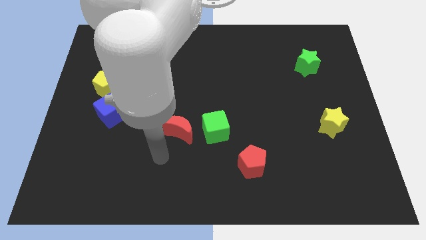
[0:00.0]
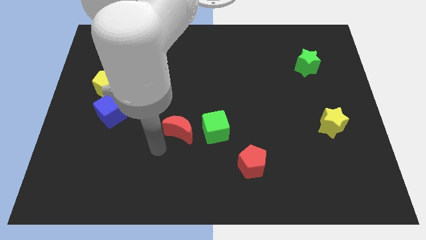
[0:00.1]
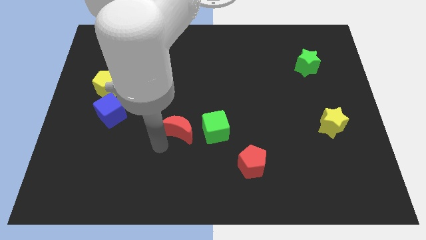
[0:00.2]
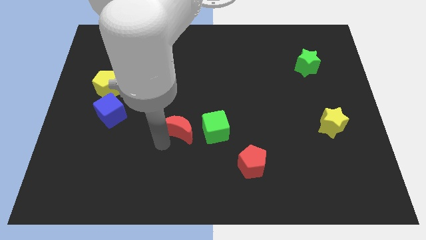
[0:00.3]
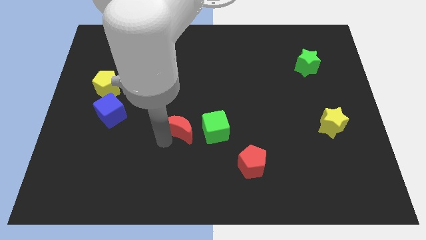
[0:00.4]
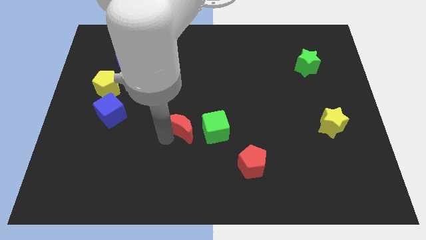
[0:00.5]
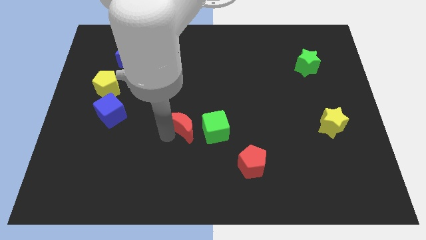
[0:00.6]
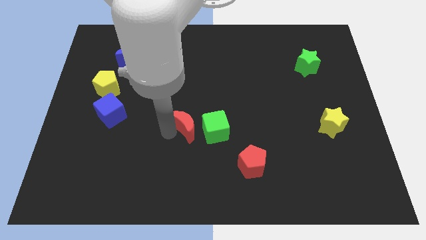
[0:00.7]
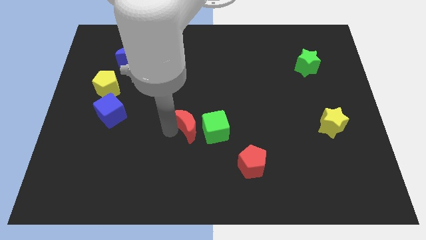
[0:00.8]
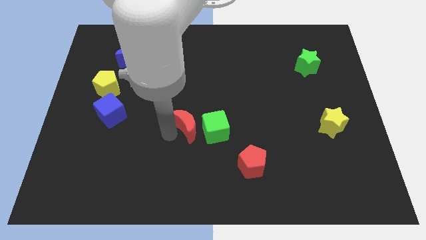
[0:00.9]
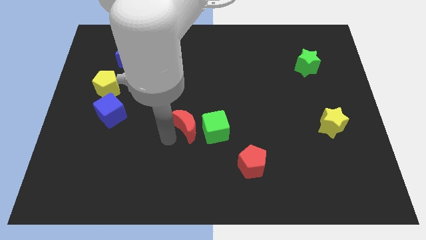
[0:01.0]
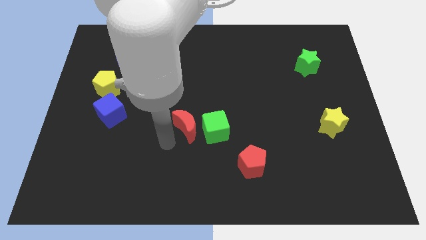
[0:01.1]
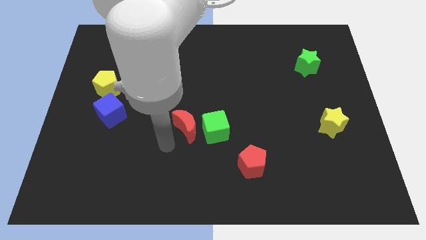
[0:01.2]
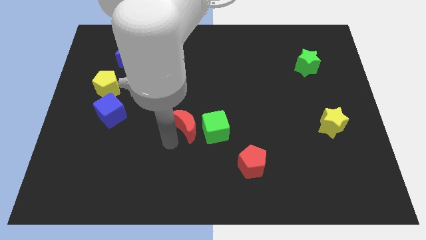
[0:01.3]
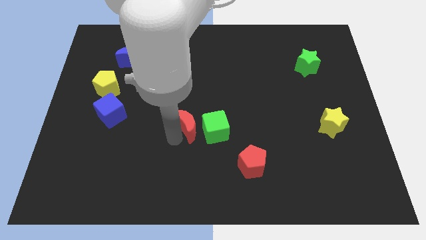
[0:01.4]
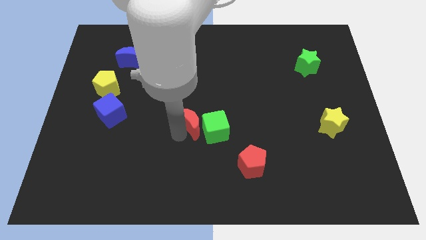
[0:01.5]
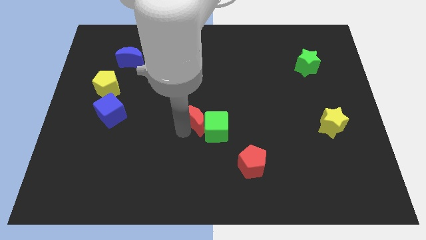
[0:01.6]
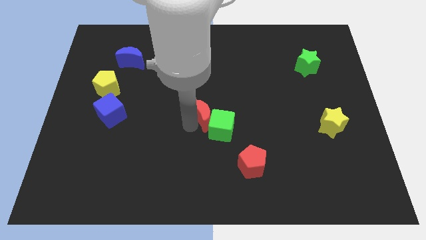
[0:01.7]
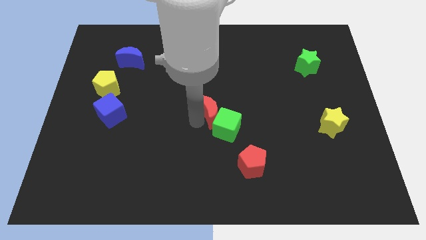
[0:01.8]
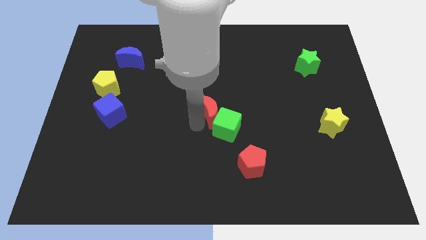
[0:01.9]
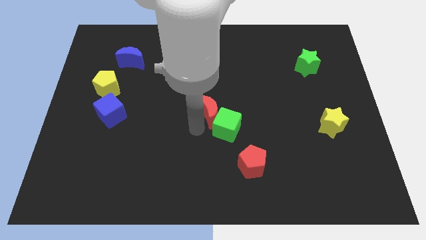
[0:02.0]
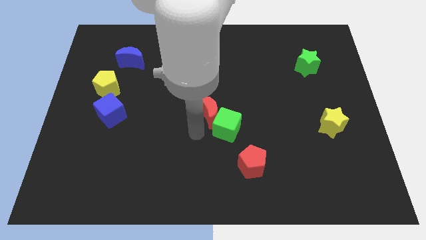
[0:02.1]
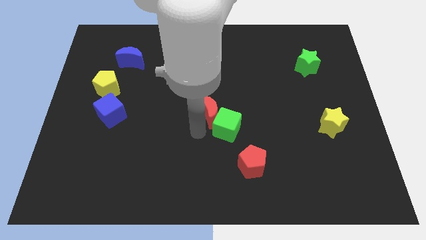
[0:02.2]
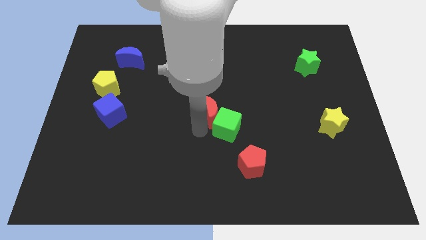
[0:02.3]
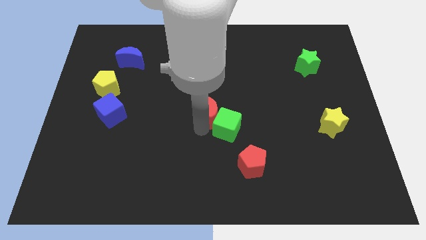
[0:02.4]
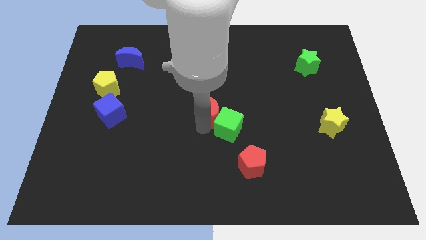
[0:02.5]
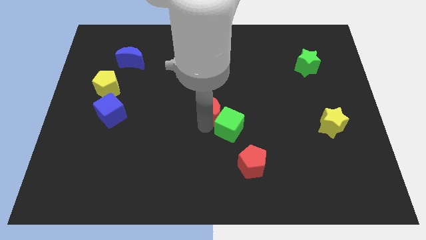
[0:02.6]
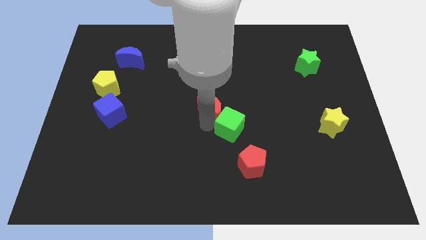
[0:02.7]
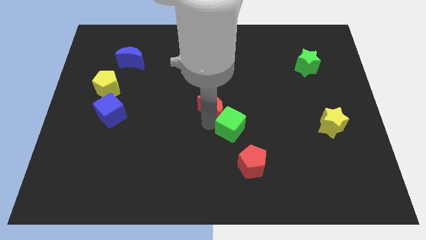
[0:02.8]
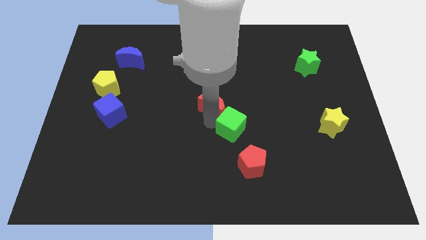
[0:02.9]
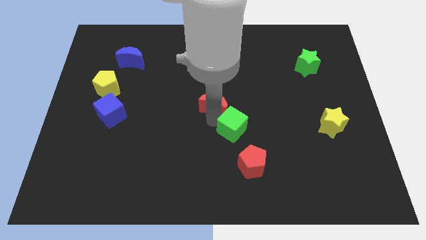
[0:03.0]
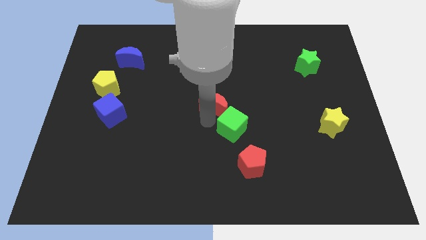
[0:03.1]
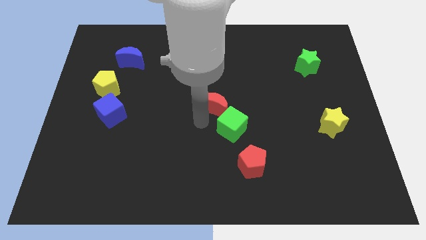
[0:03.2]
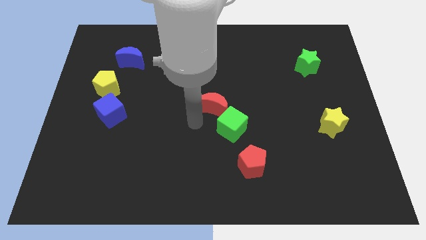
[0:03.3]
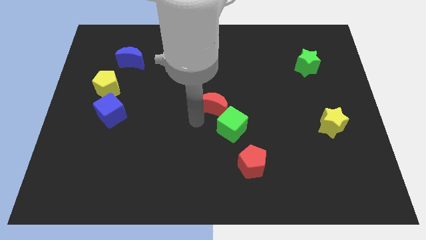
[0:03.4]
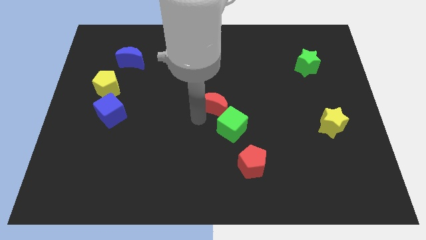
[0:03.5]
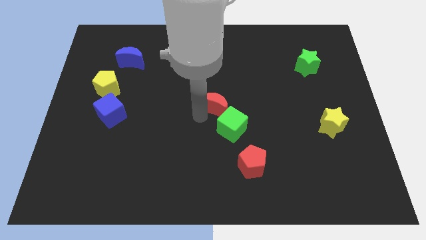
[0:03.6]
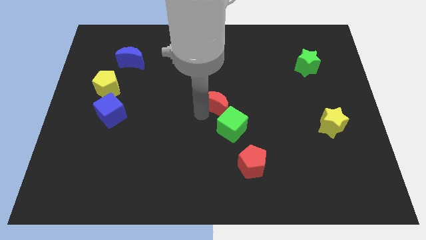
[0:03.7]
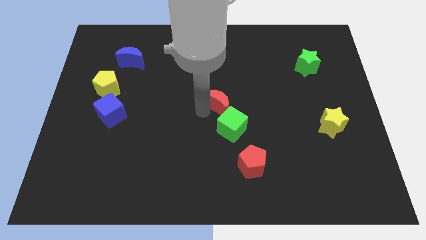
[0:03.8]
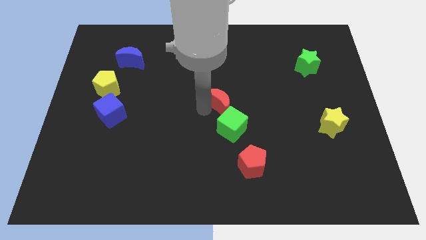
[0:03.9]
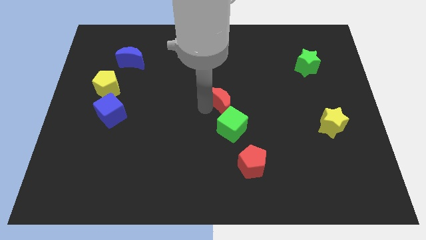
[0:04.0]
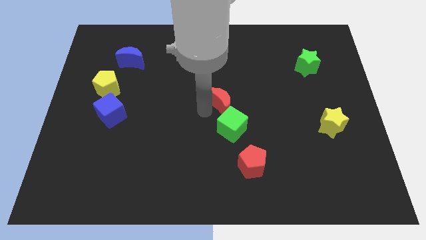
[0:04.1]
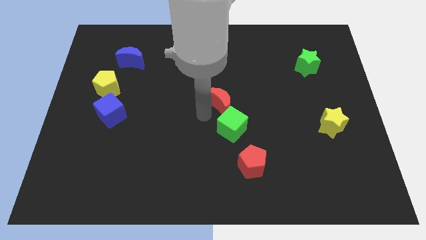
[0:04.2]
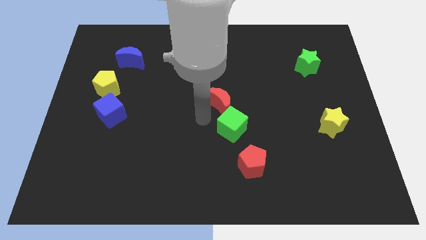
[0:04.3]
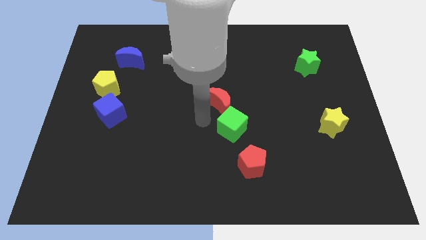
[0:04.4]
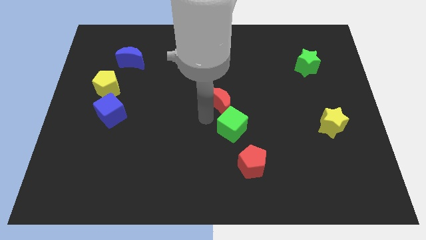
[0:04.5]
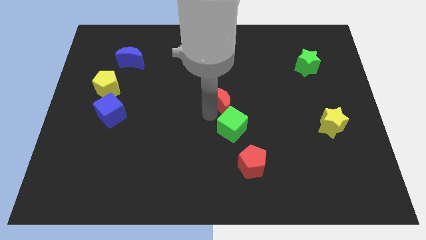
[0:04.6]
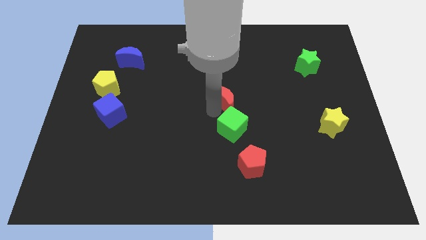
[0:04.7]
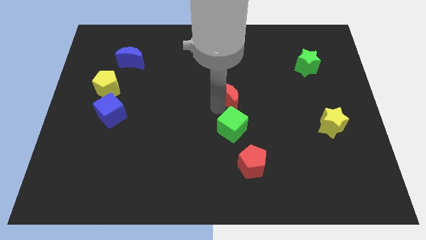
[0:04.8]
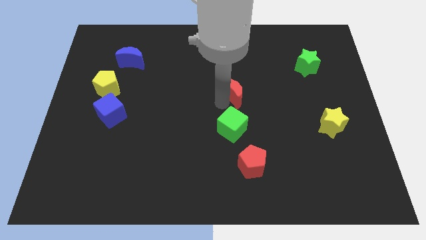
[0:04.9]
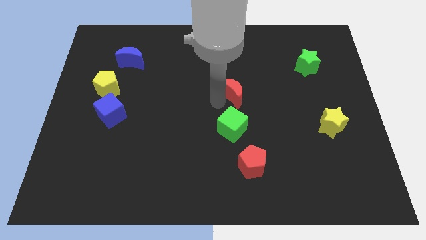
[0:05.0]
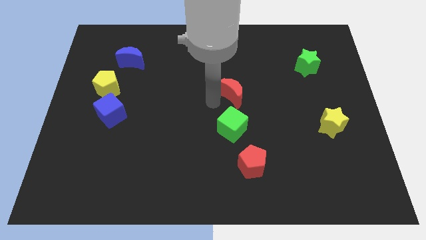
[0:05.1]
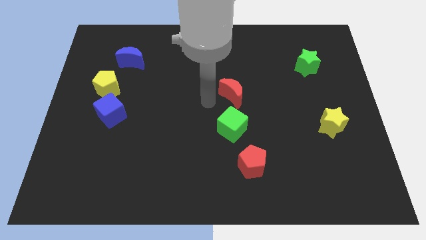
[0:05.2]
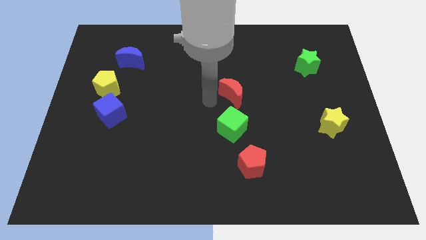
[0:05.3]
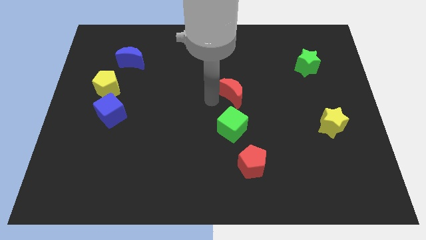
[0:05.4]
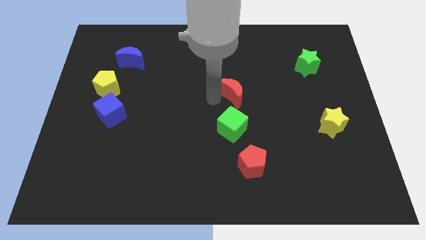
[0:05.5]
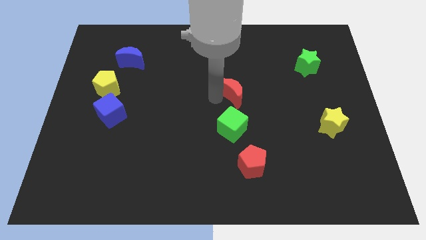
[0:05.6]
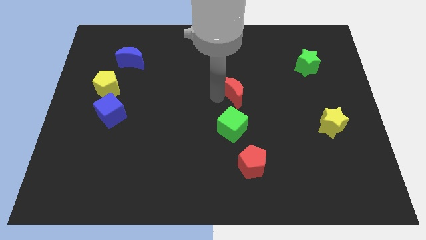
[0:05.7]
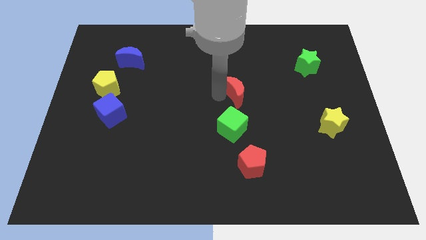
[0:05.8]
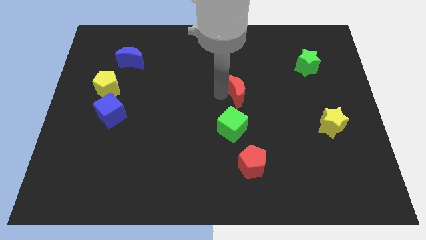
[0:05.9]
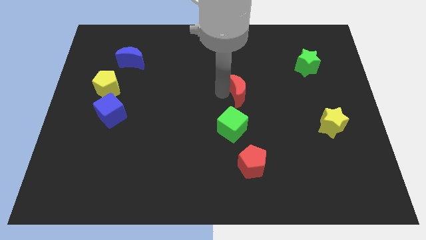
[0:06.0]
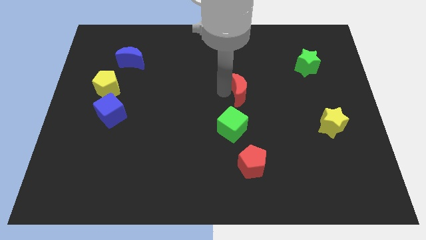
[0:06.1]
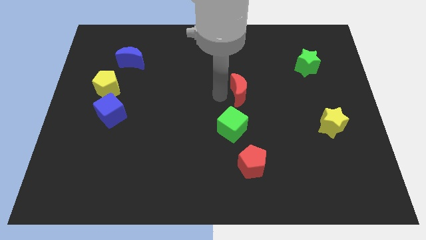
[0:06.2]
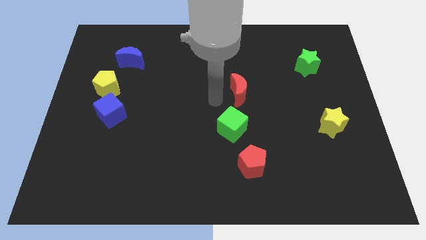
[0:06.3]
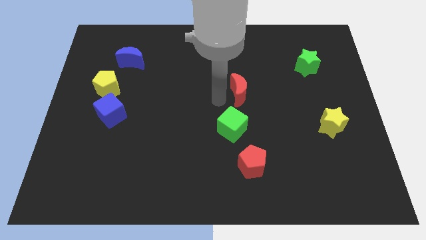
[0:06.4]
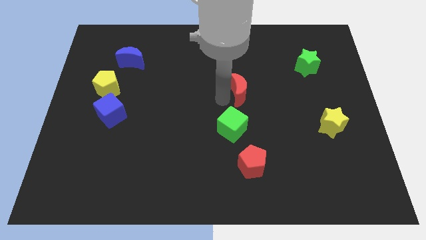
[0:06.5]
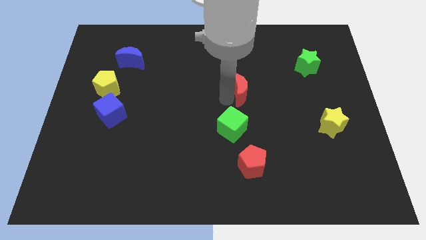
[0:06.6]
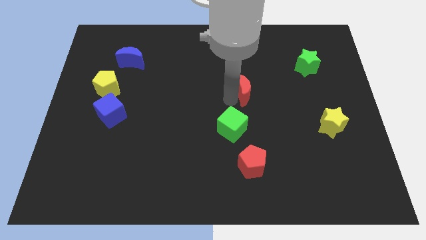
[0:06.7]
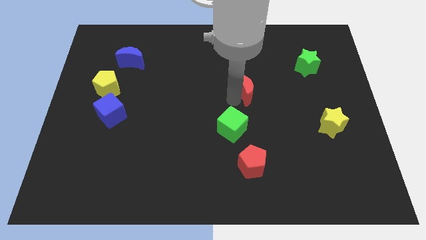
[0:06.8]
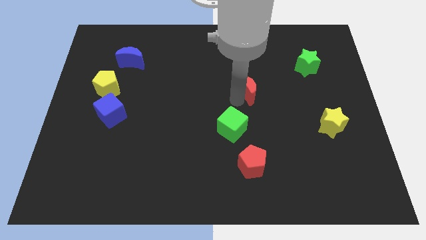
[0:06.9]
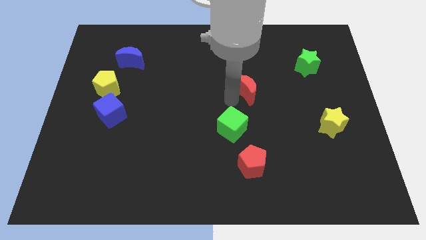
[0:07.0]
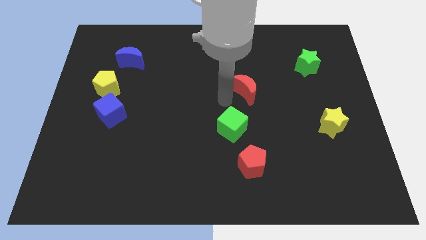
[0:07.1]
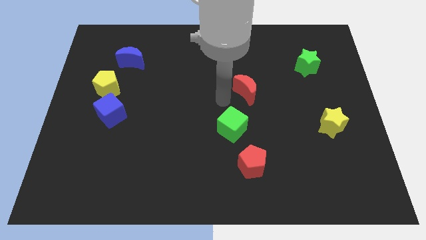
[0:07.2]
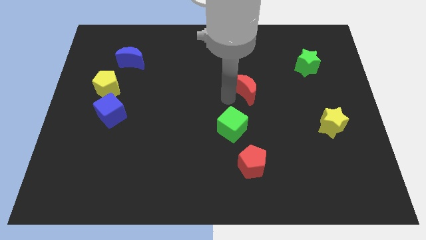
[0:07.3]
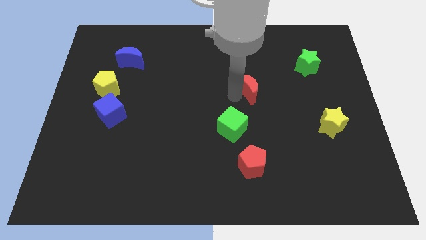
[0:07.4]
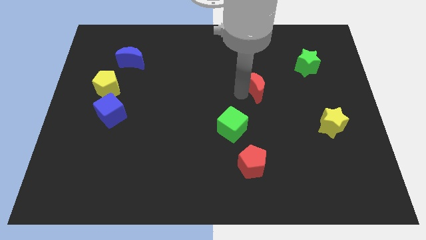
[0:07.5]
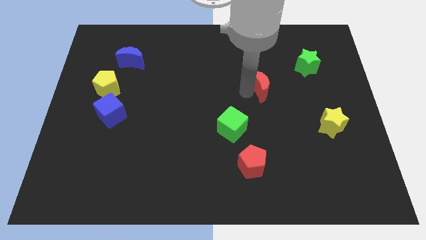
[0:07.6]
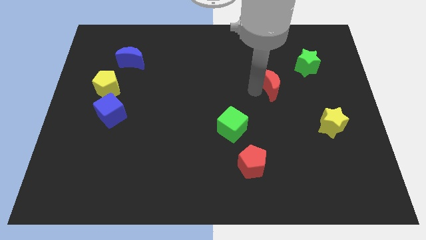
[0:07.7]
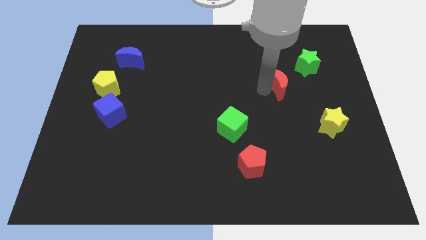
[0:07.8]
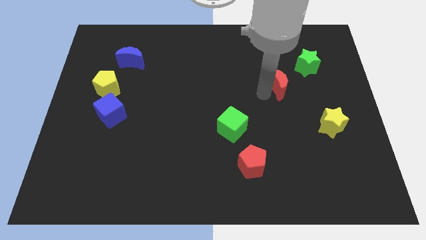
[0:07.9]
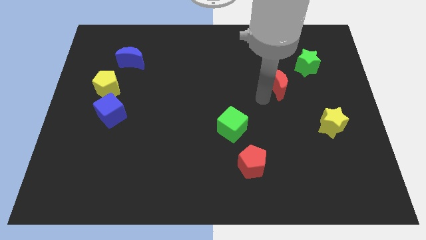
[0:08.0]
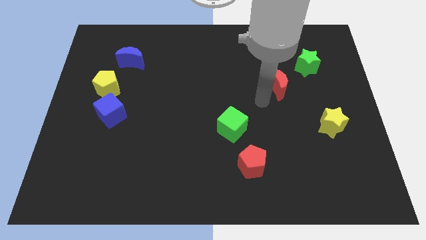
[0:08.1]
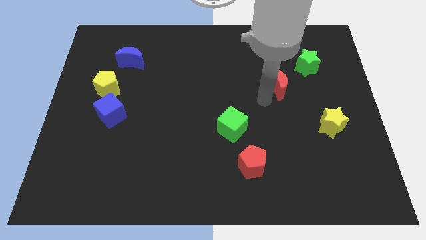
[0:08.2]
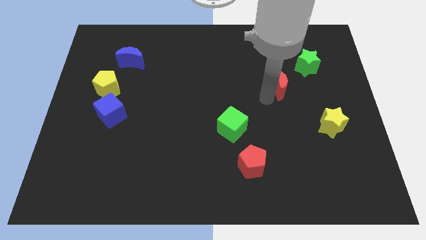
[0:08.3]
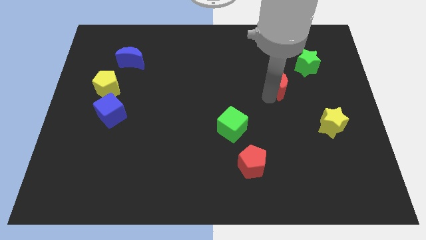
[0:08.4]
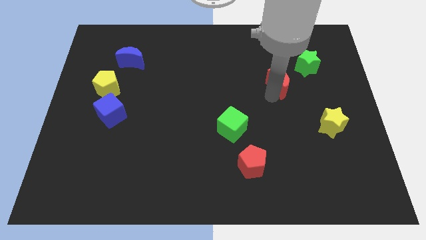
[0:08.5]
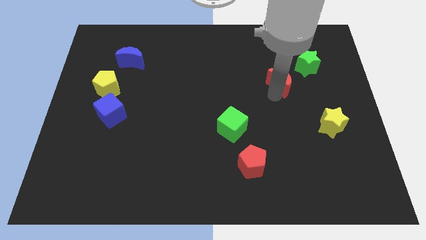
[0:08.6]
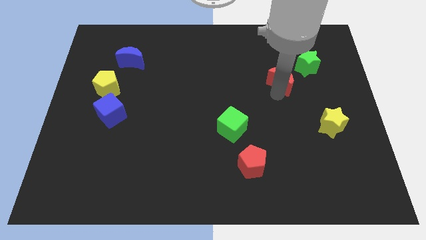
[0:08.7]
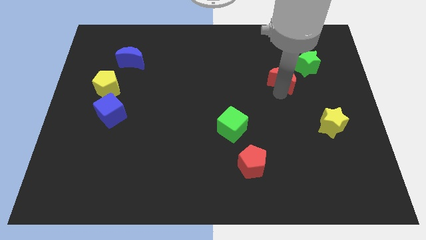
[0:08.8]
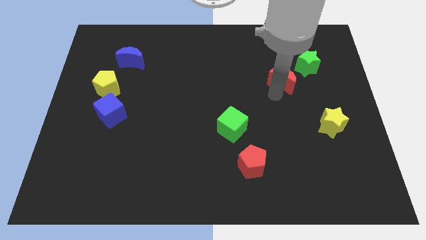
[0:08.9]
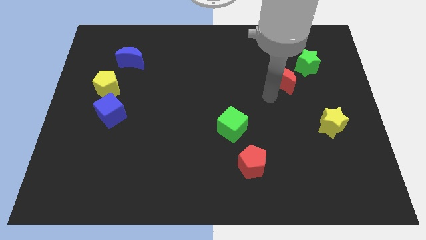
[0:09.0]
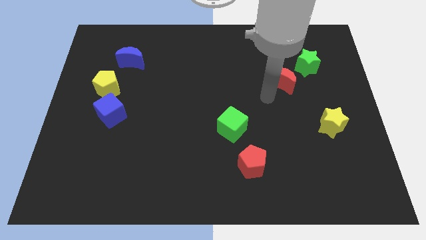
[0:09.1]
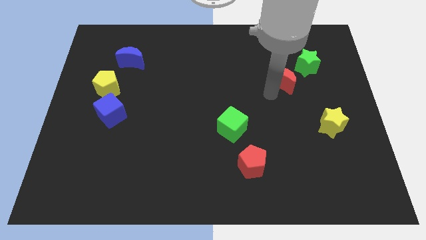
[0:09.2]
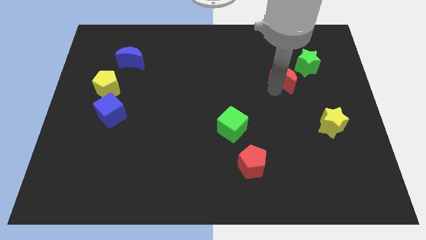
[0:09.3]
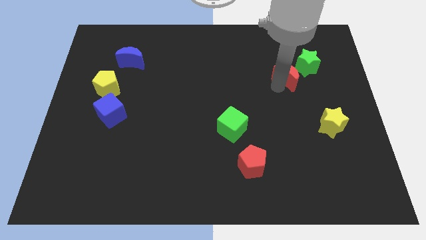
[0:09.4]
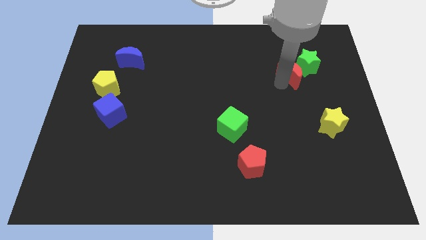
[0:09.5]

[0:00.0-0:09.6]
put the red moon close to the green star
